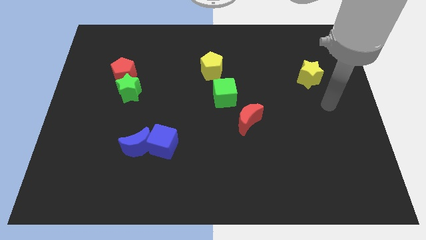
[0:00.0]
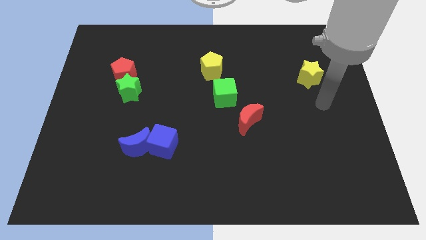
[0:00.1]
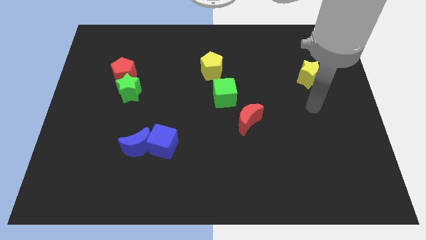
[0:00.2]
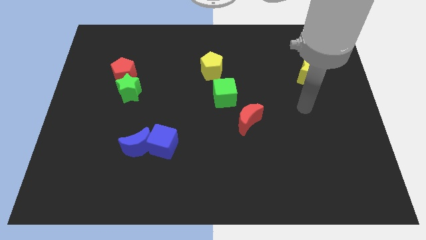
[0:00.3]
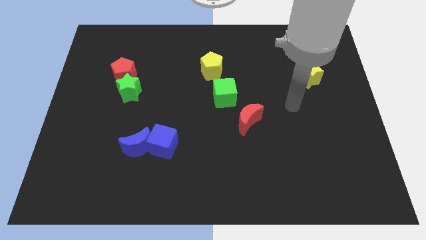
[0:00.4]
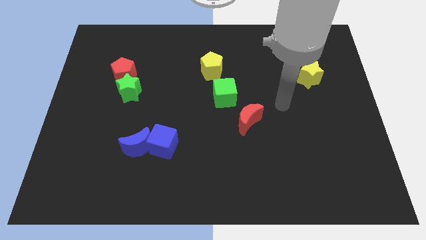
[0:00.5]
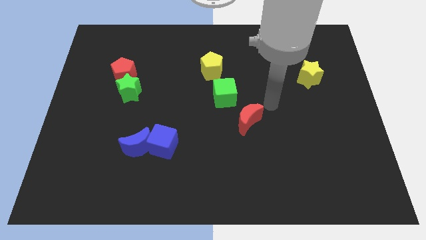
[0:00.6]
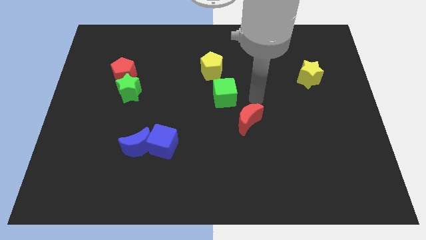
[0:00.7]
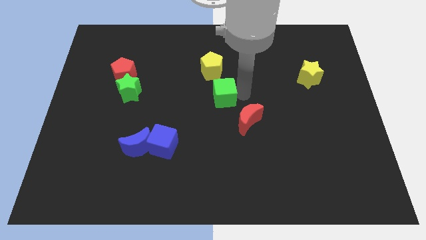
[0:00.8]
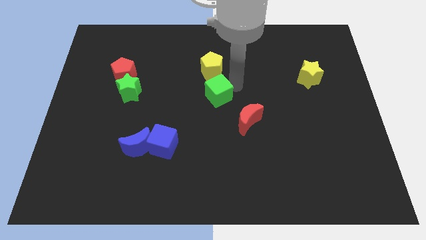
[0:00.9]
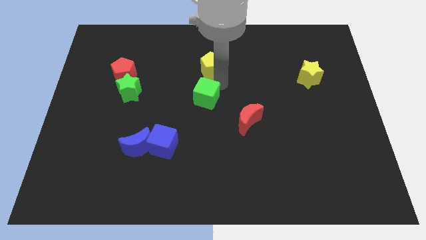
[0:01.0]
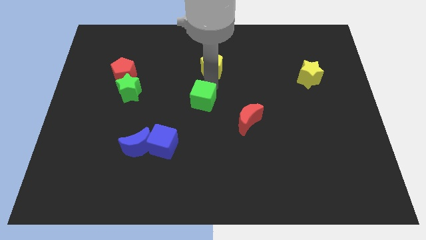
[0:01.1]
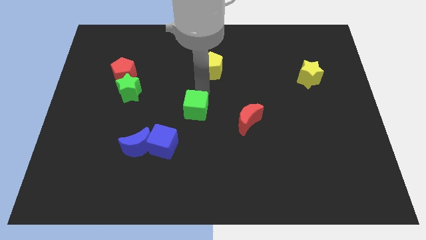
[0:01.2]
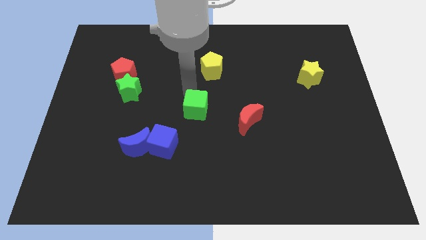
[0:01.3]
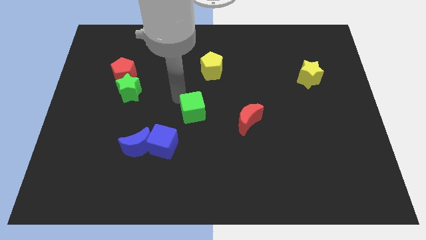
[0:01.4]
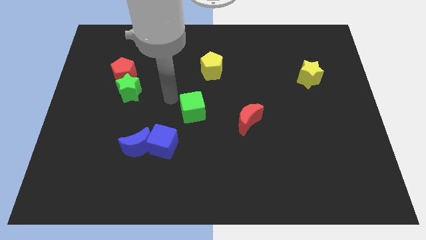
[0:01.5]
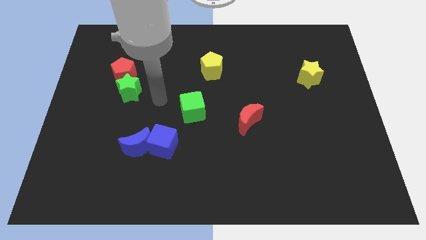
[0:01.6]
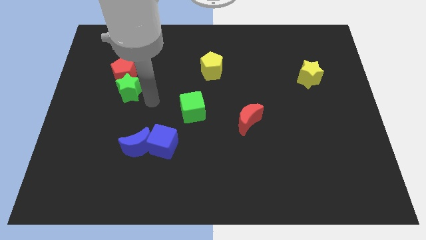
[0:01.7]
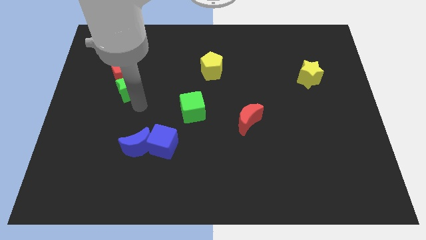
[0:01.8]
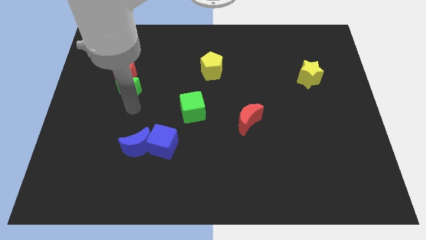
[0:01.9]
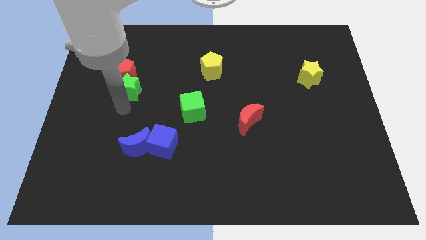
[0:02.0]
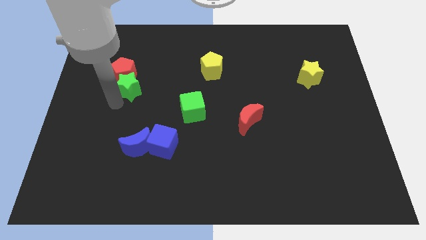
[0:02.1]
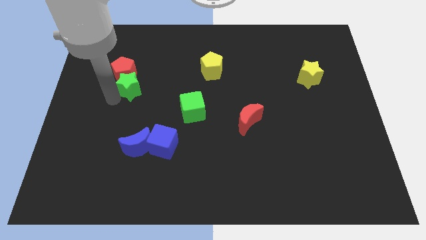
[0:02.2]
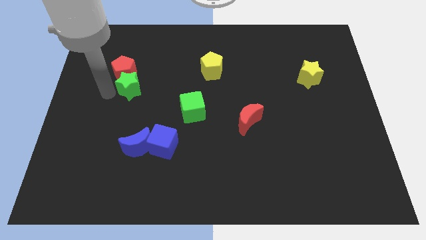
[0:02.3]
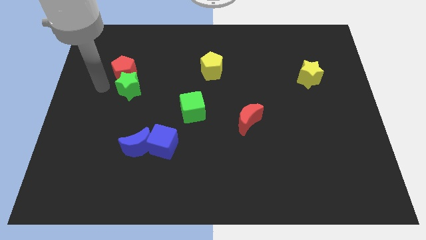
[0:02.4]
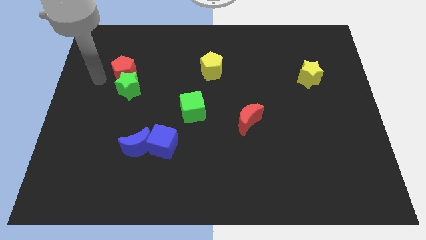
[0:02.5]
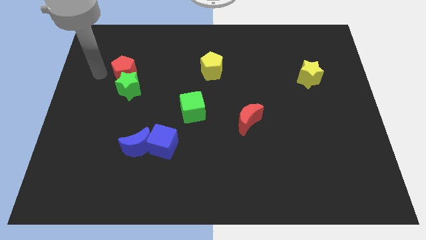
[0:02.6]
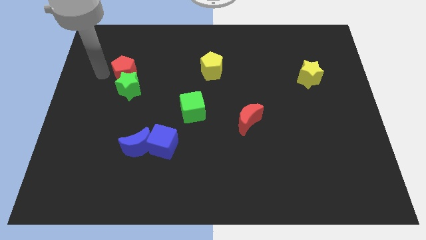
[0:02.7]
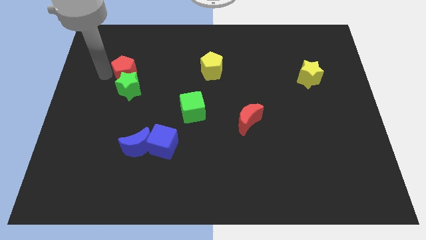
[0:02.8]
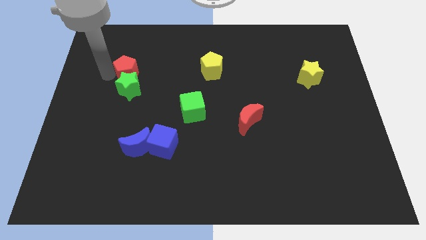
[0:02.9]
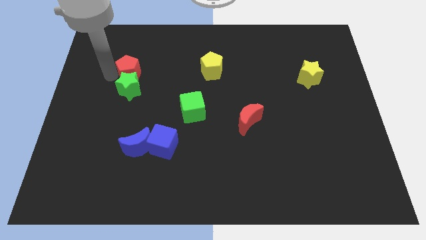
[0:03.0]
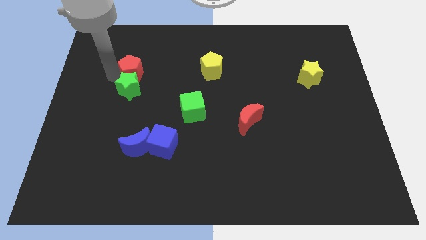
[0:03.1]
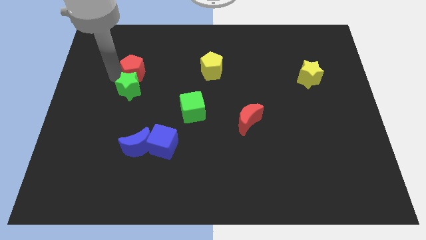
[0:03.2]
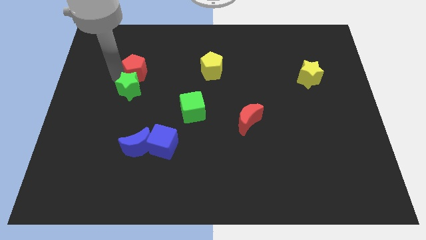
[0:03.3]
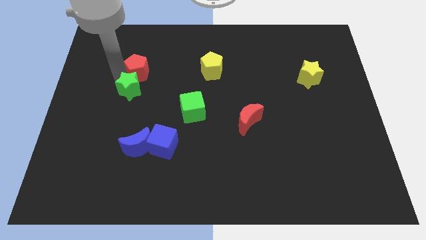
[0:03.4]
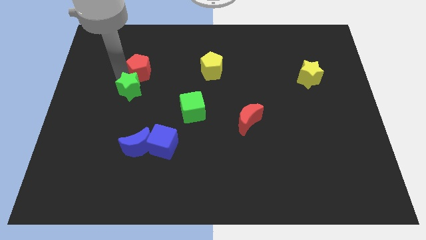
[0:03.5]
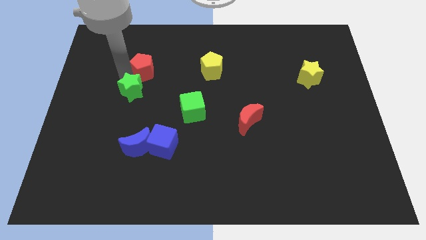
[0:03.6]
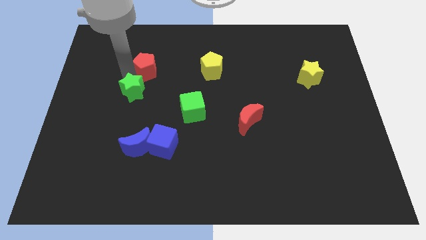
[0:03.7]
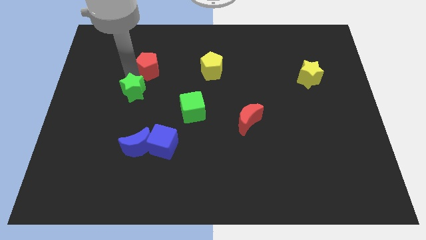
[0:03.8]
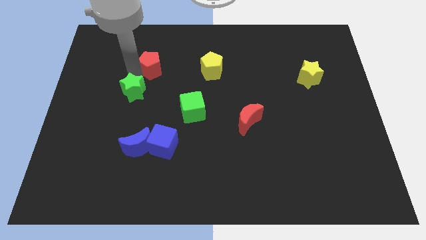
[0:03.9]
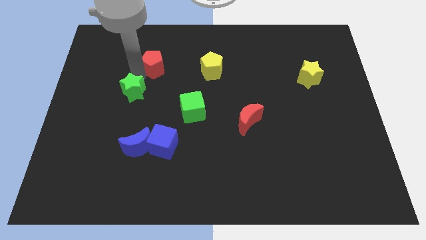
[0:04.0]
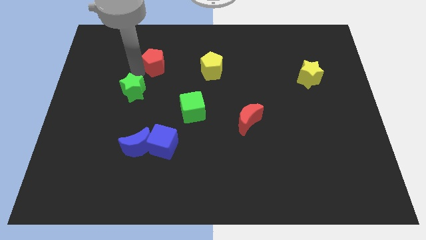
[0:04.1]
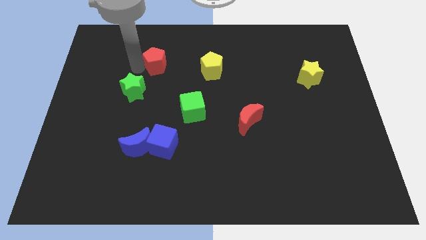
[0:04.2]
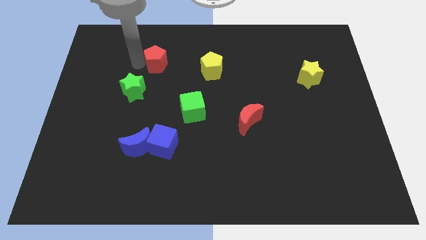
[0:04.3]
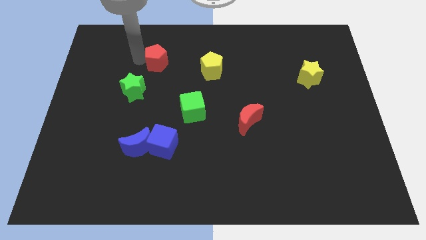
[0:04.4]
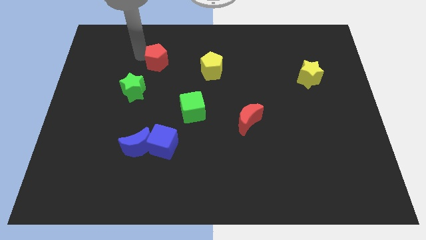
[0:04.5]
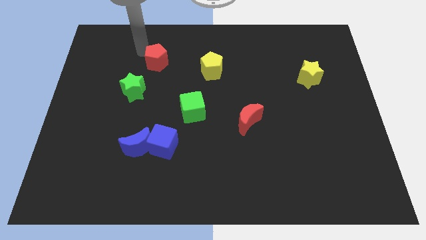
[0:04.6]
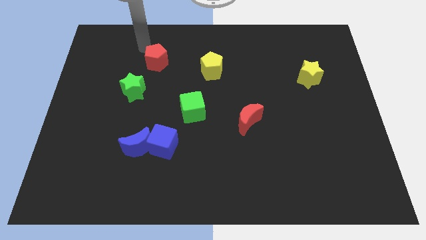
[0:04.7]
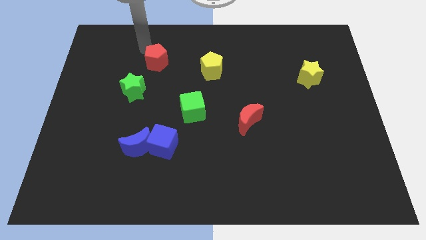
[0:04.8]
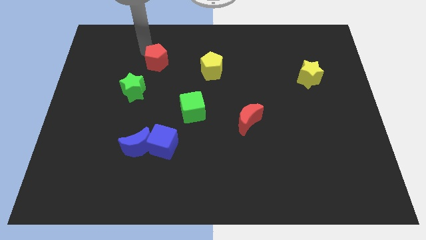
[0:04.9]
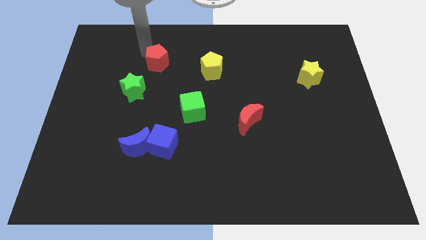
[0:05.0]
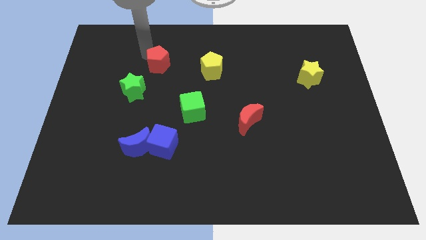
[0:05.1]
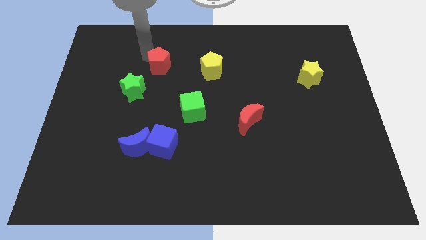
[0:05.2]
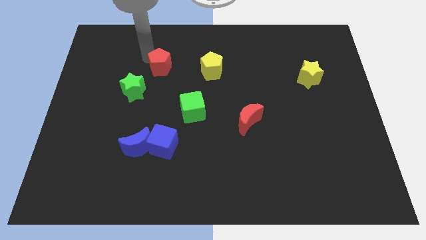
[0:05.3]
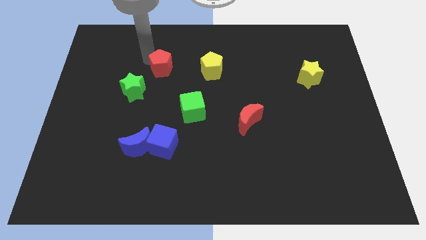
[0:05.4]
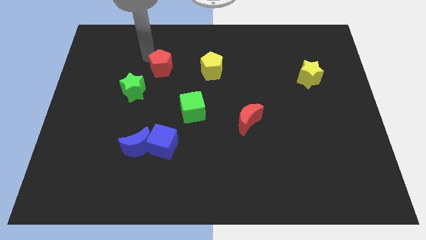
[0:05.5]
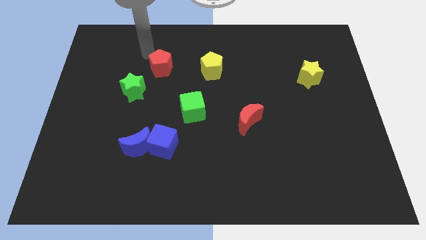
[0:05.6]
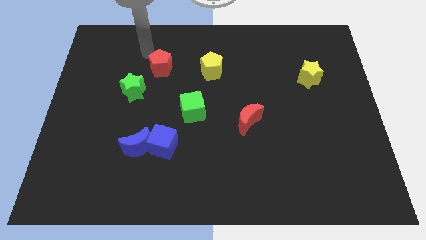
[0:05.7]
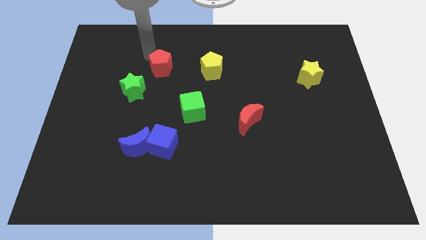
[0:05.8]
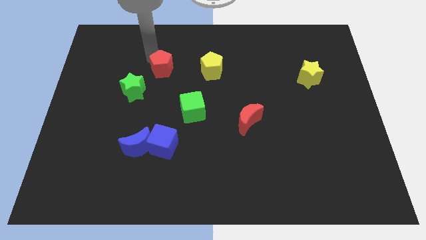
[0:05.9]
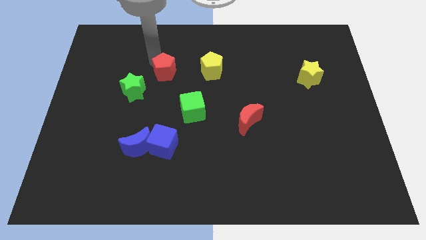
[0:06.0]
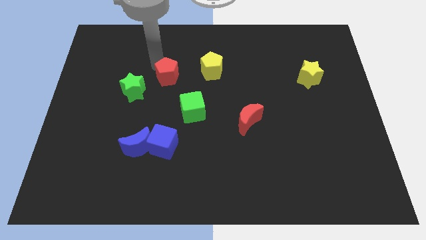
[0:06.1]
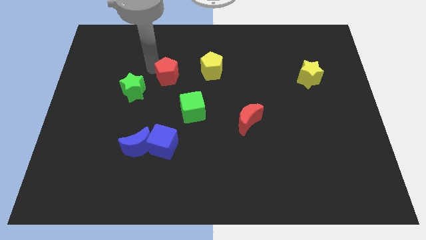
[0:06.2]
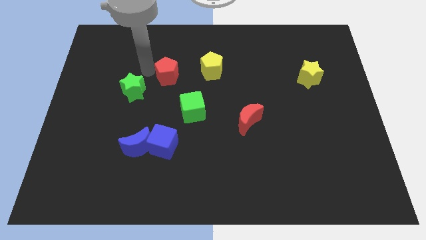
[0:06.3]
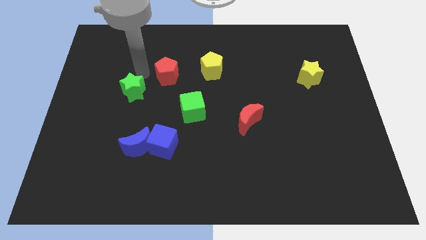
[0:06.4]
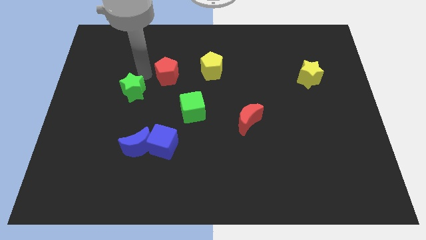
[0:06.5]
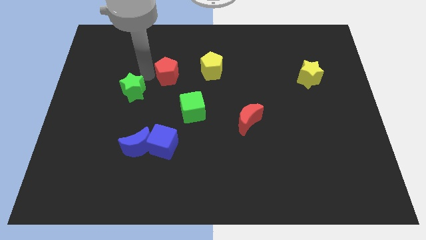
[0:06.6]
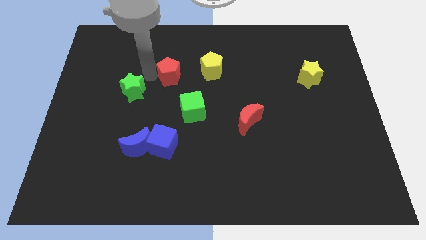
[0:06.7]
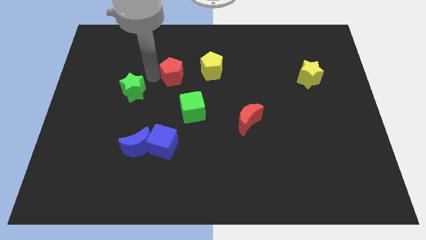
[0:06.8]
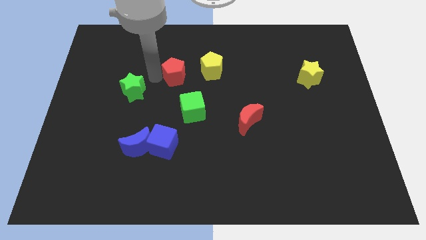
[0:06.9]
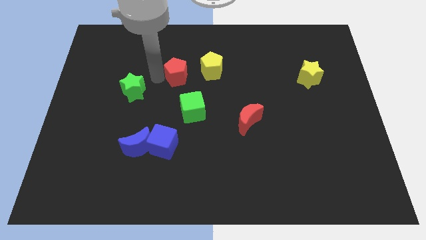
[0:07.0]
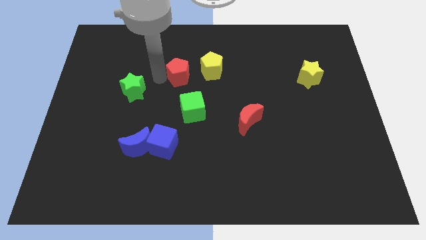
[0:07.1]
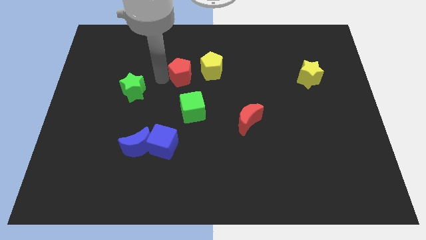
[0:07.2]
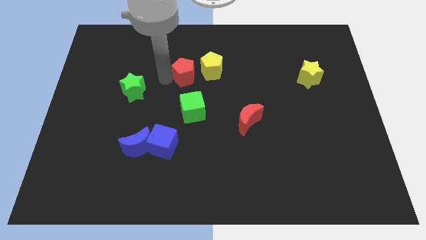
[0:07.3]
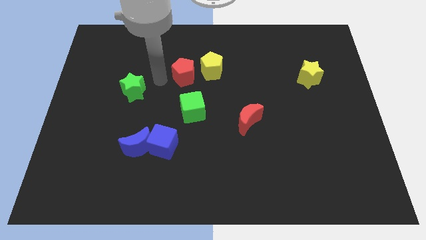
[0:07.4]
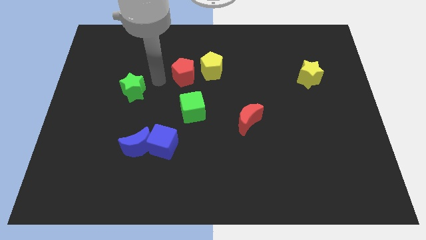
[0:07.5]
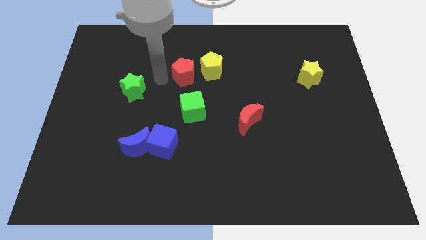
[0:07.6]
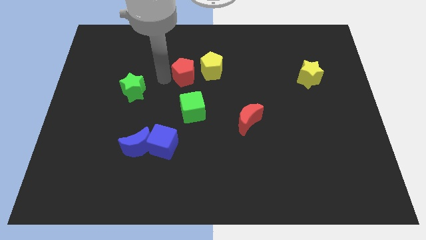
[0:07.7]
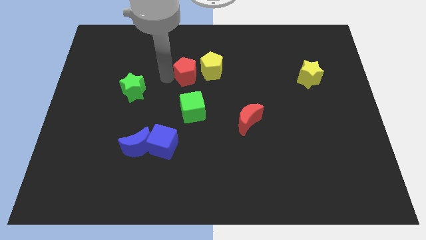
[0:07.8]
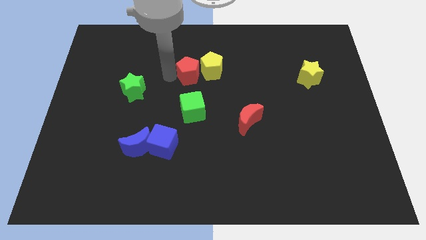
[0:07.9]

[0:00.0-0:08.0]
slide the red pentagon to the yellow pentagon
